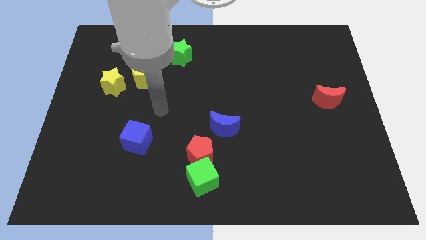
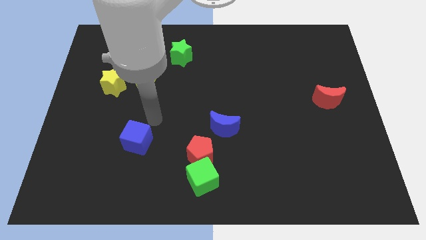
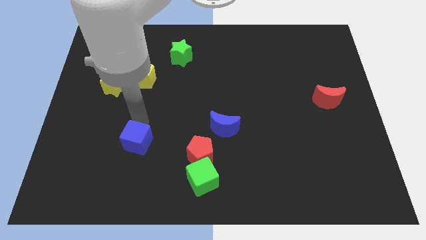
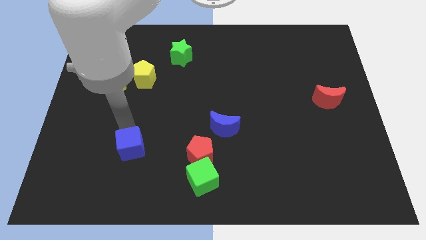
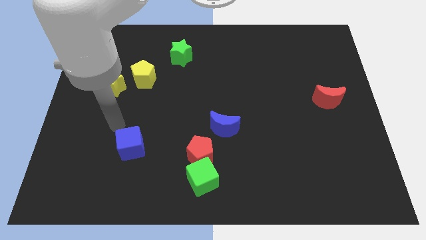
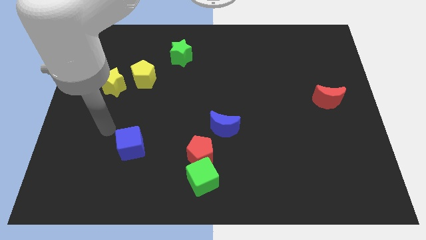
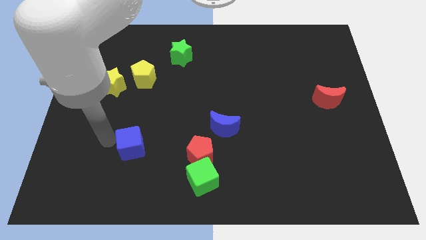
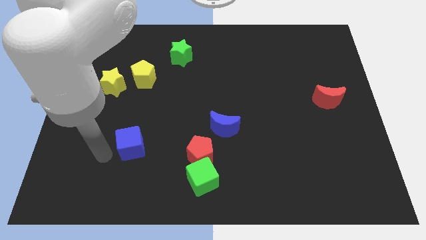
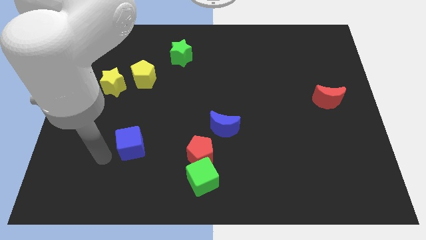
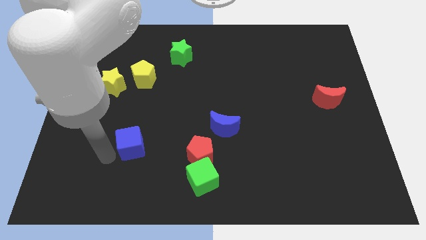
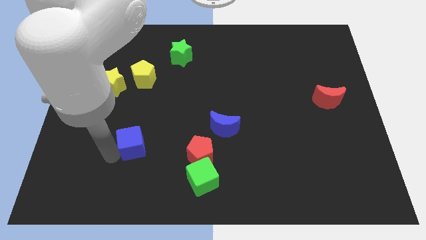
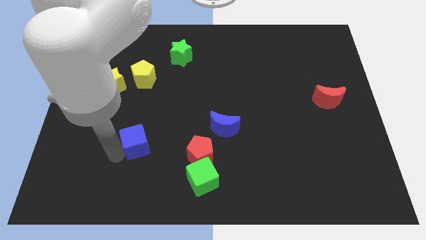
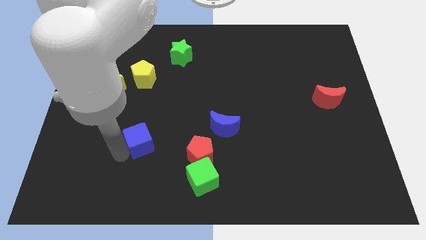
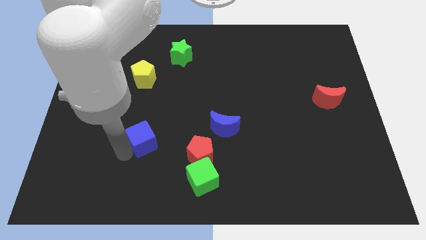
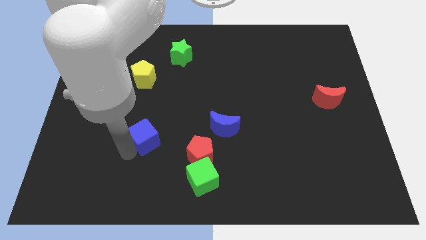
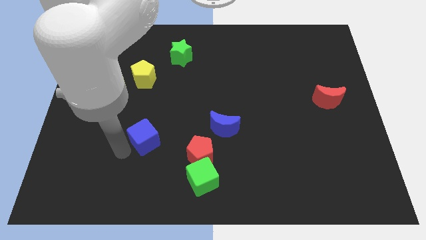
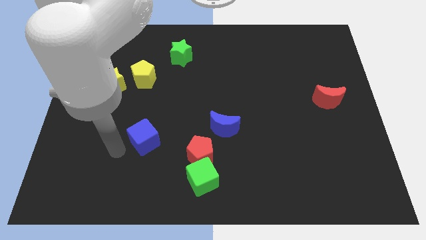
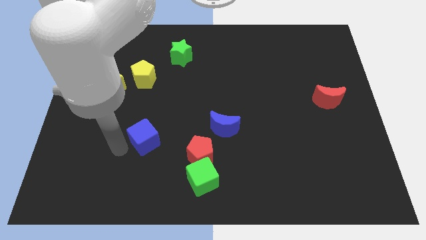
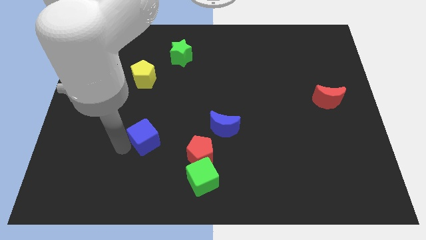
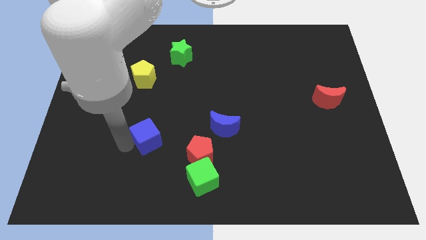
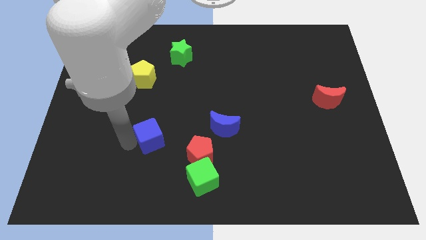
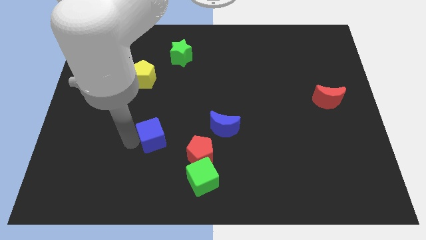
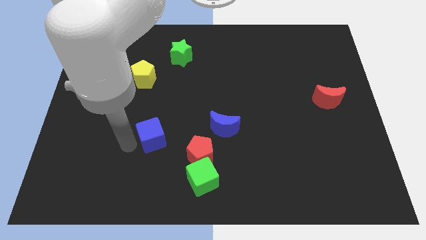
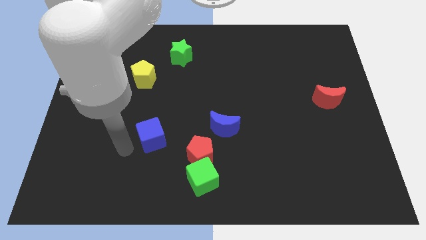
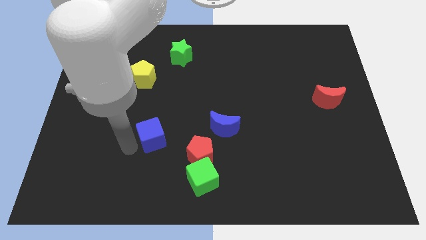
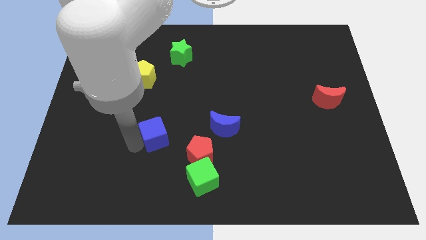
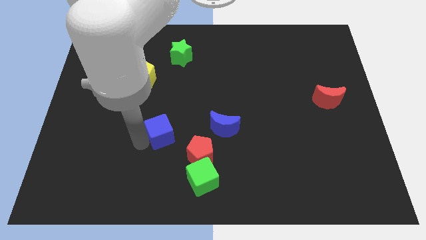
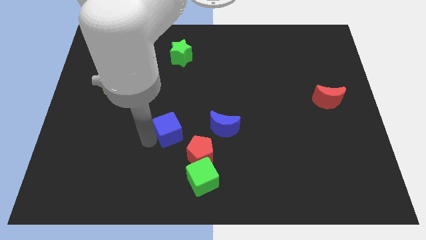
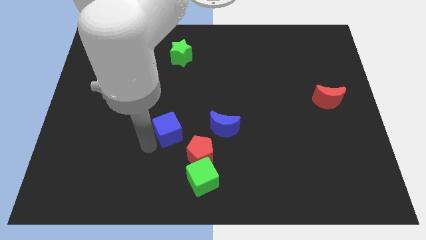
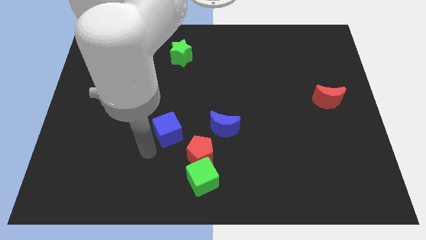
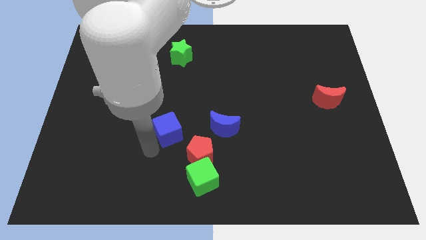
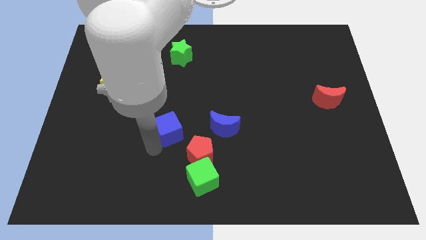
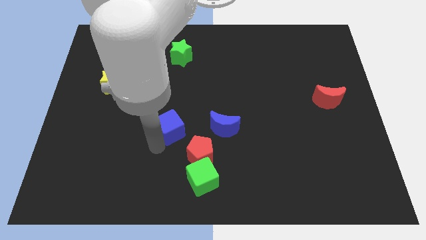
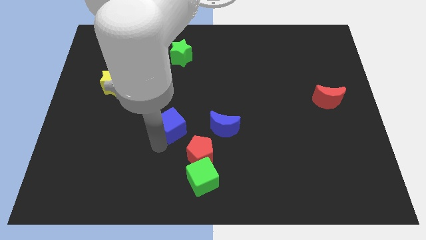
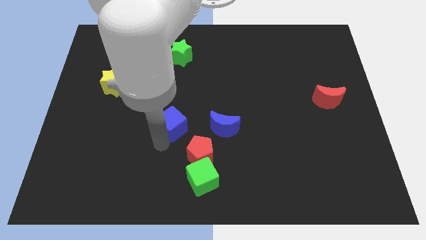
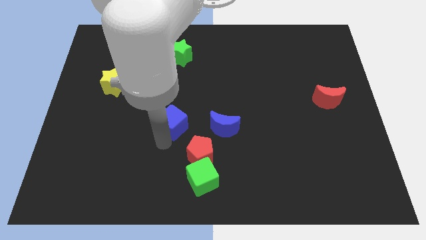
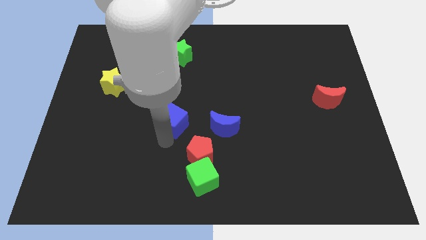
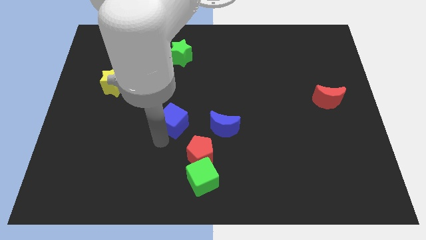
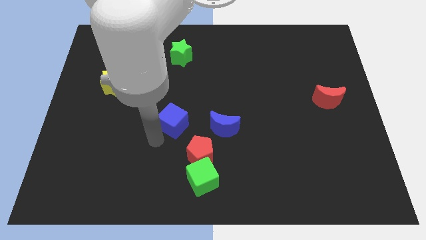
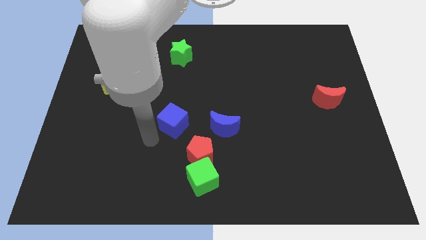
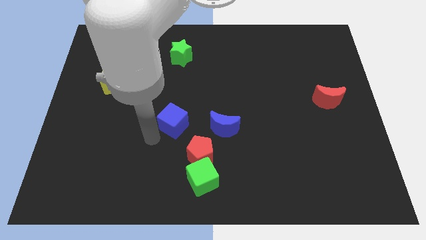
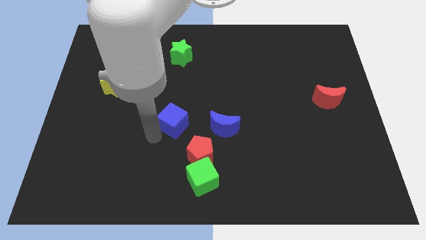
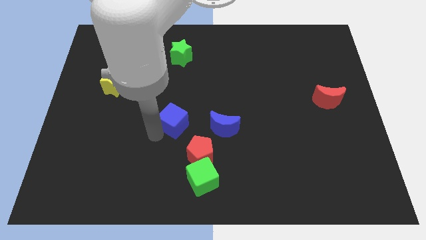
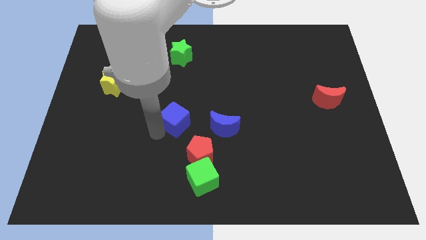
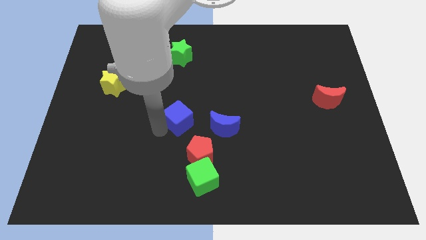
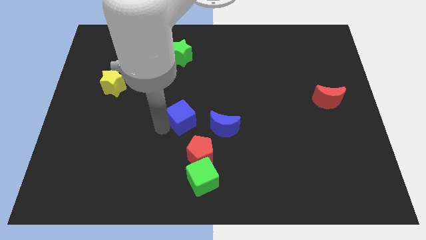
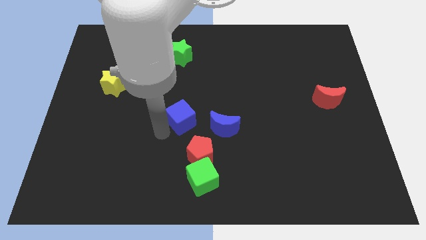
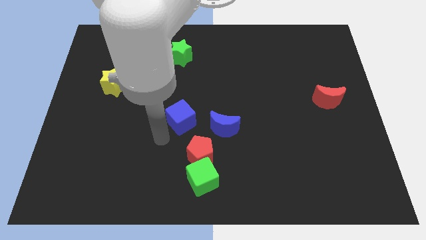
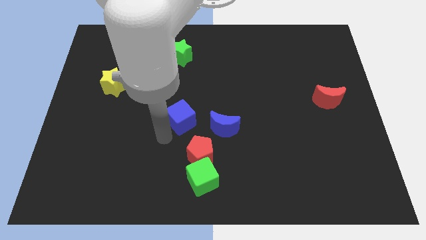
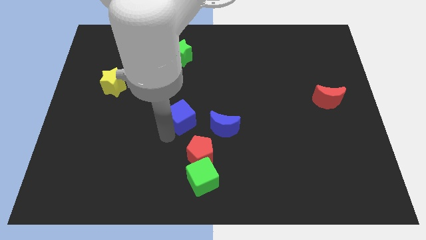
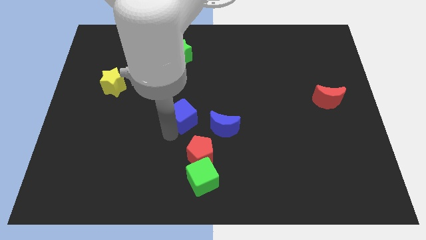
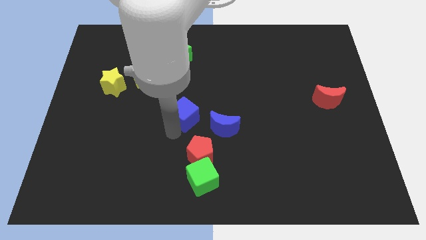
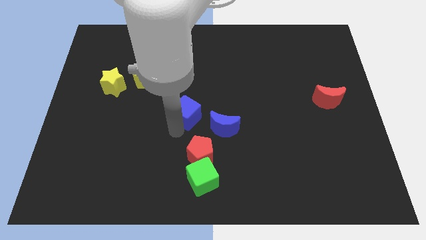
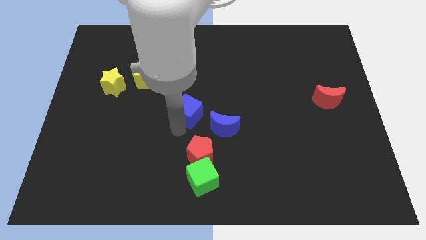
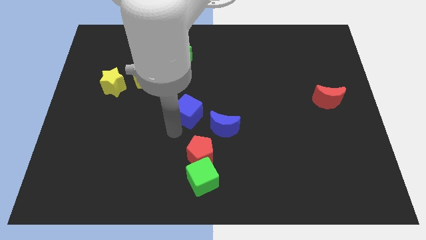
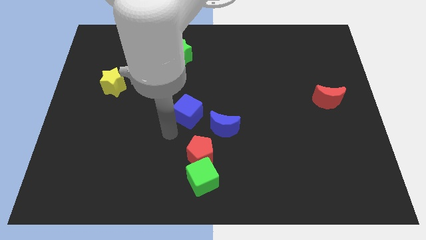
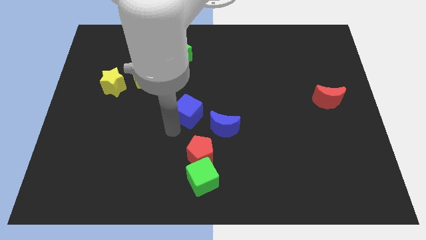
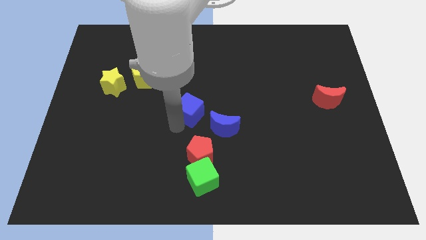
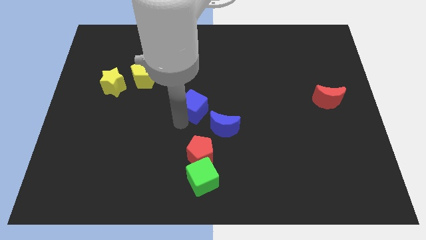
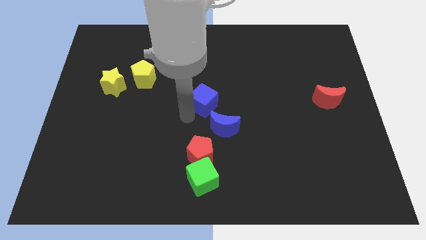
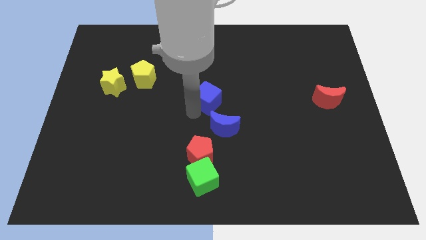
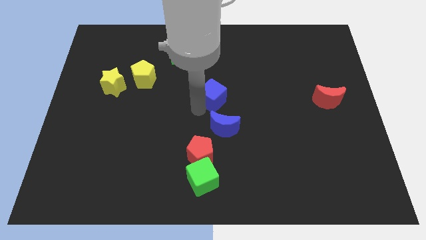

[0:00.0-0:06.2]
move the blue cube up and then to the right

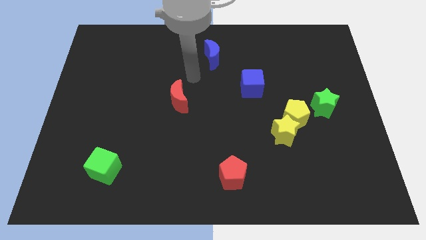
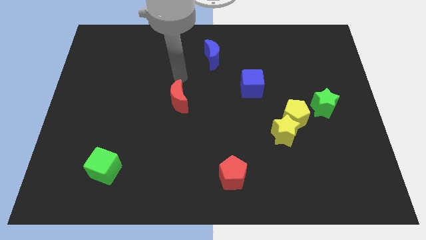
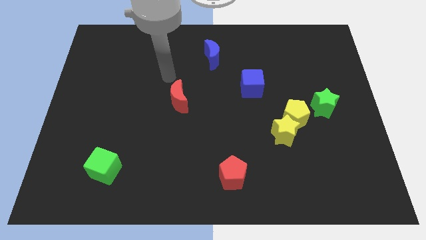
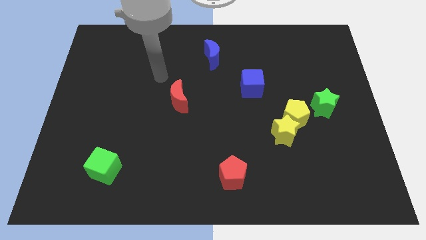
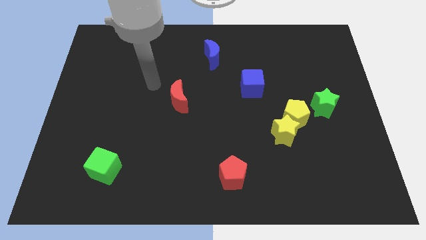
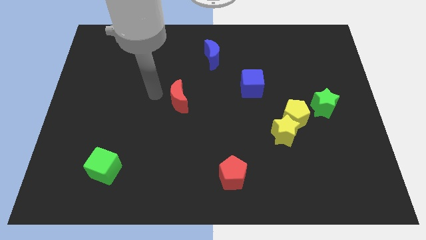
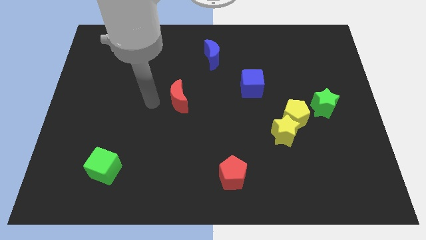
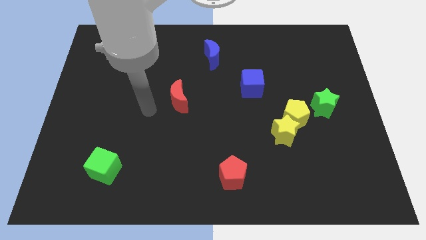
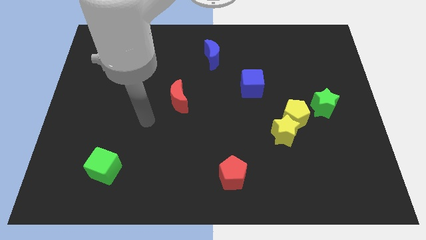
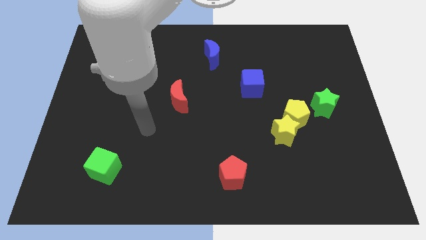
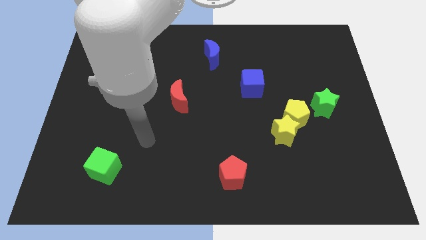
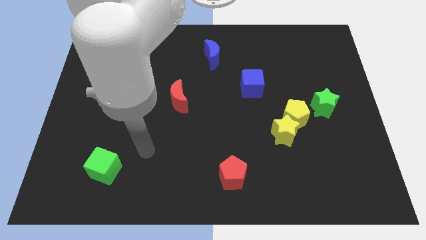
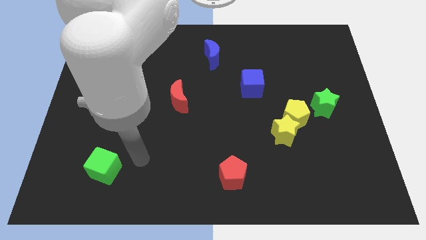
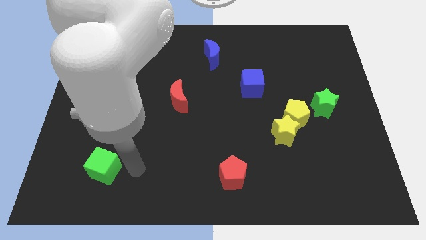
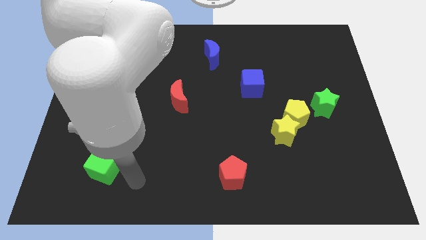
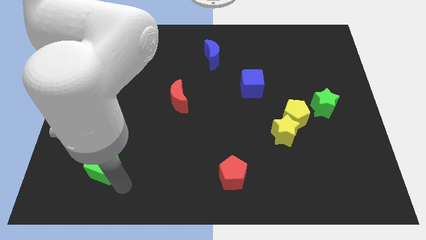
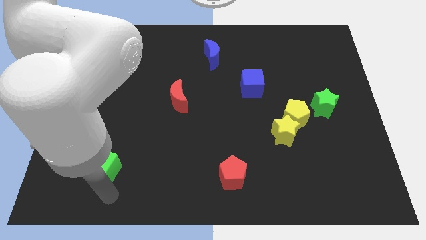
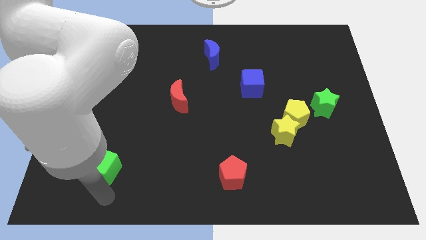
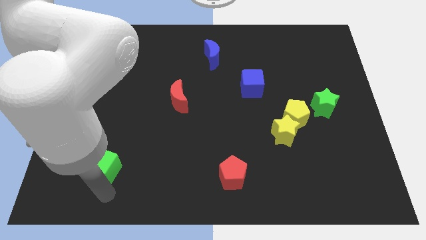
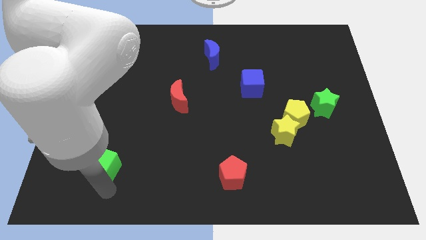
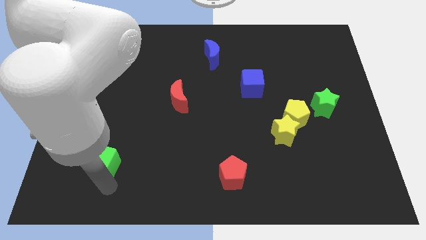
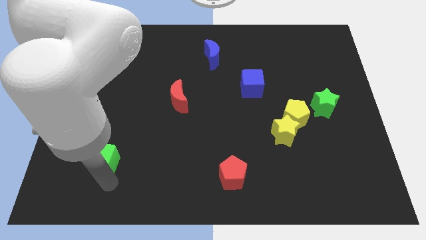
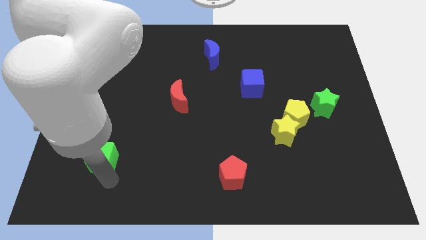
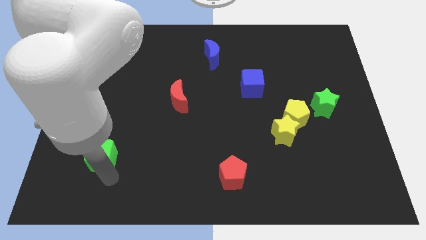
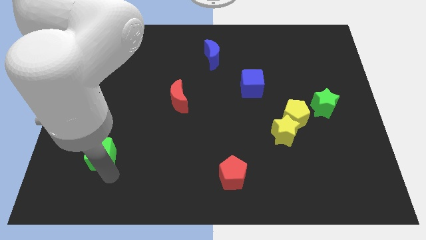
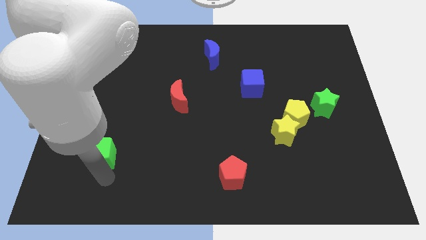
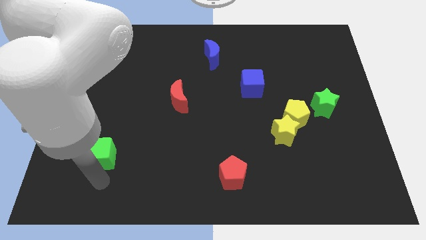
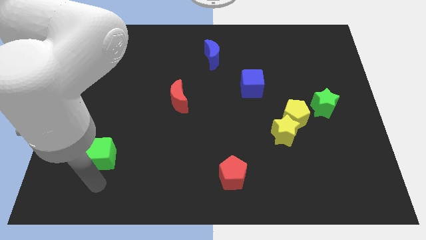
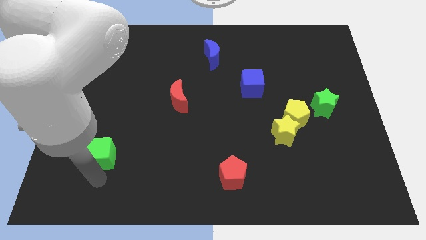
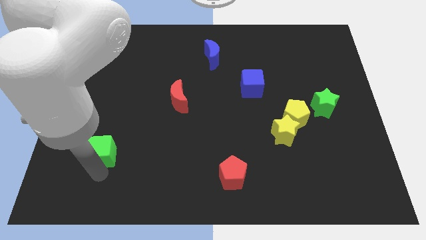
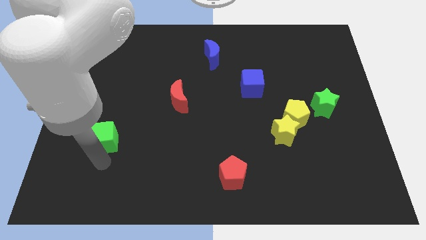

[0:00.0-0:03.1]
push the green cube up a little
